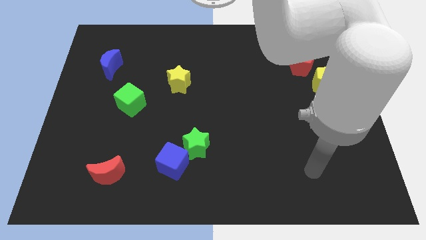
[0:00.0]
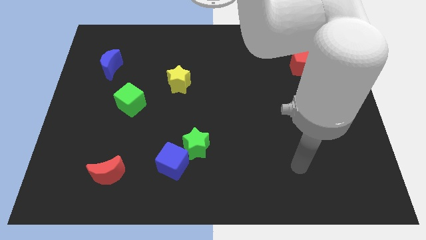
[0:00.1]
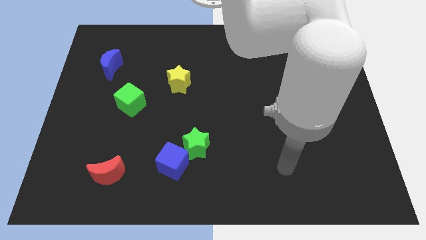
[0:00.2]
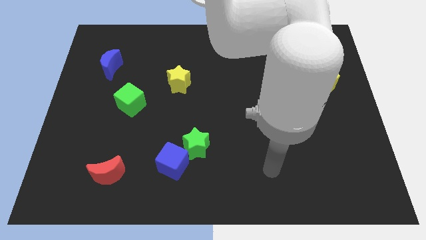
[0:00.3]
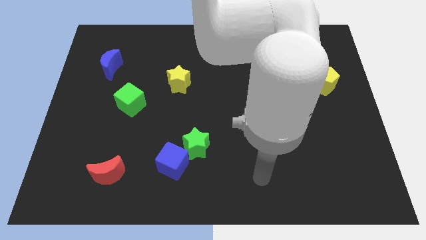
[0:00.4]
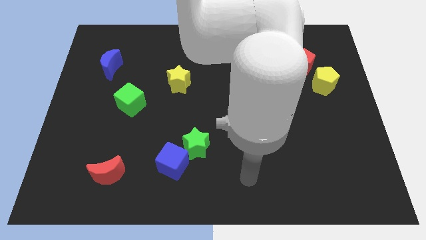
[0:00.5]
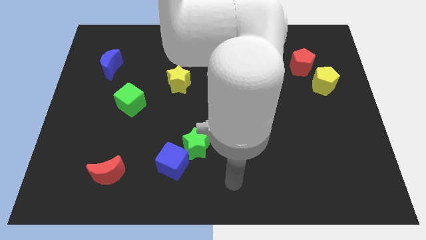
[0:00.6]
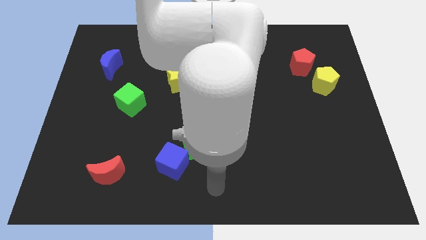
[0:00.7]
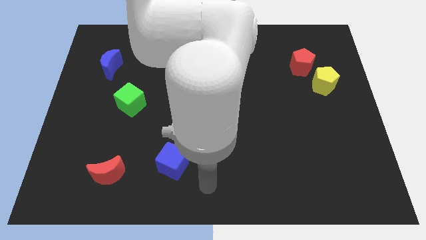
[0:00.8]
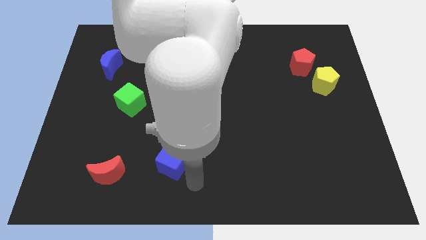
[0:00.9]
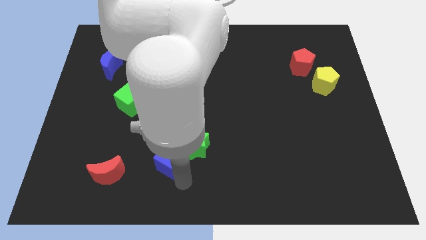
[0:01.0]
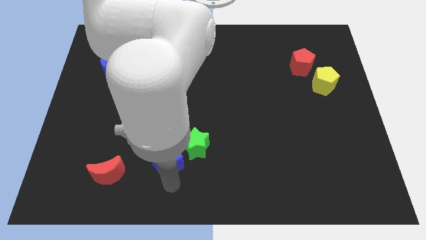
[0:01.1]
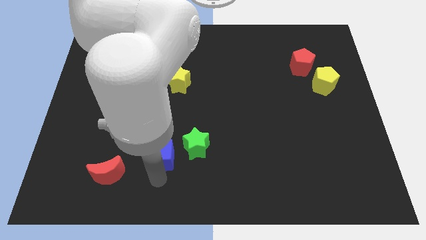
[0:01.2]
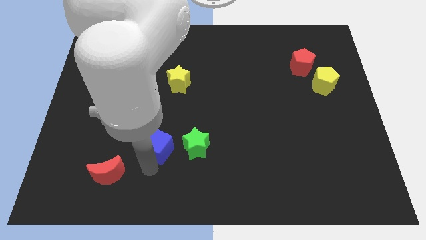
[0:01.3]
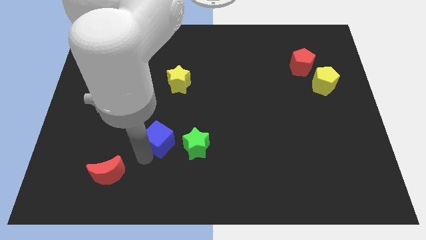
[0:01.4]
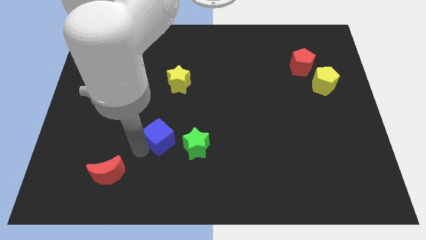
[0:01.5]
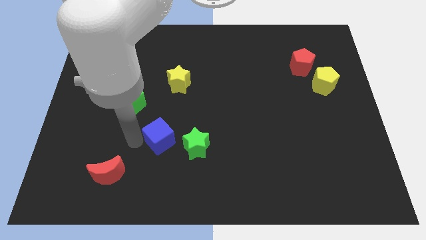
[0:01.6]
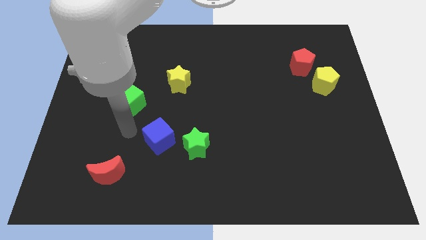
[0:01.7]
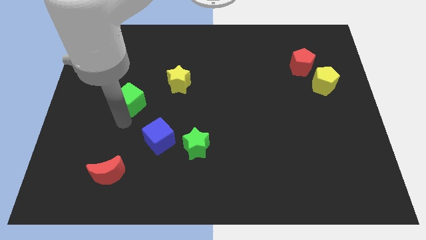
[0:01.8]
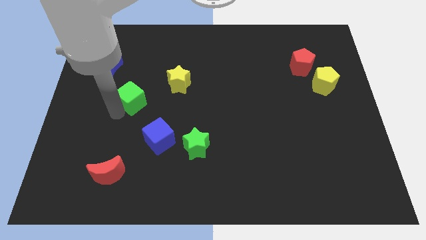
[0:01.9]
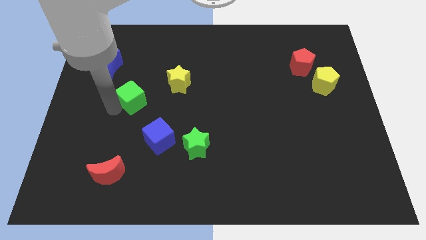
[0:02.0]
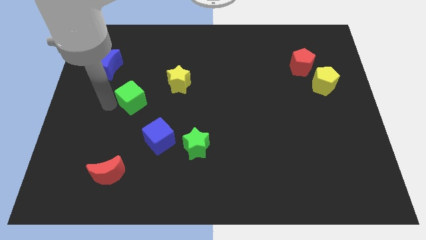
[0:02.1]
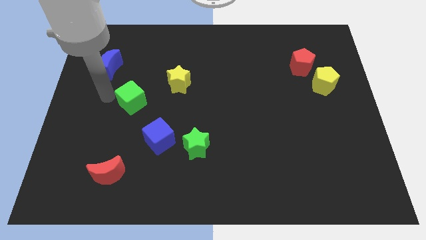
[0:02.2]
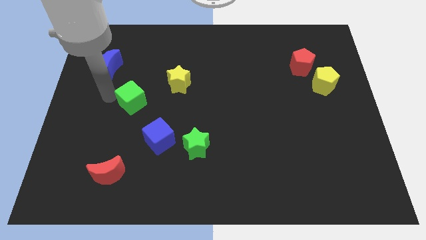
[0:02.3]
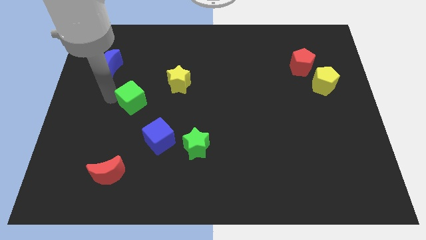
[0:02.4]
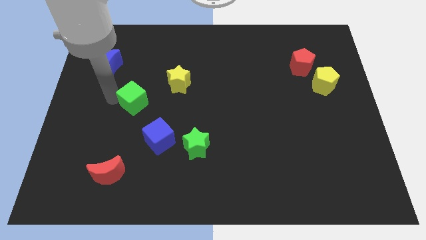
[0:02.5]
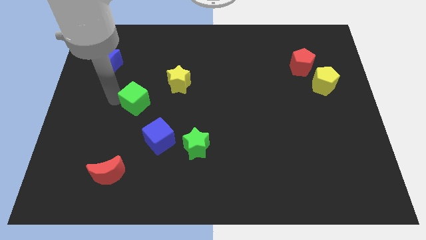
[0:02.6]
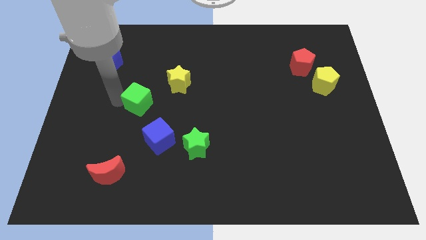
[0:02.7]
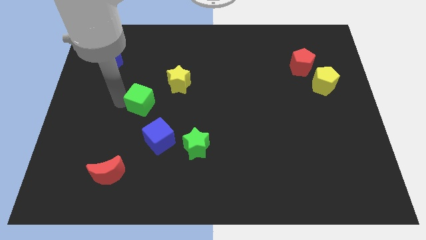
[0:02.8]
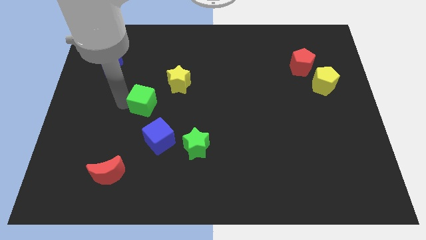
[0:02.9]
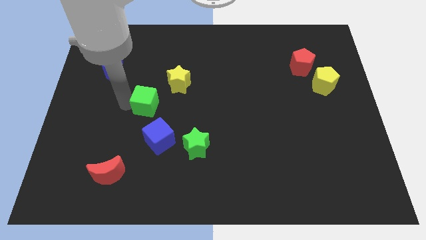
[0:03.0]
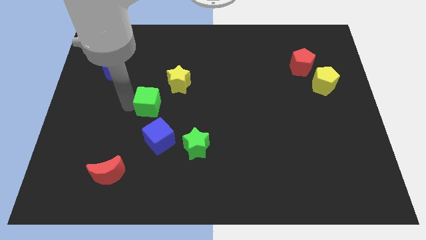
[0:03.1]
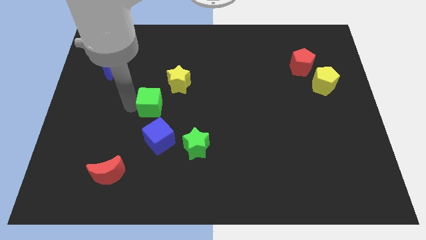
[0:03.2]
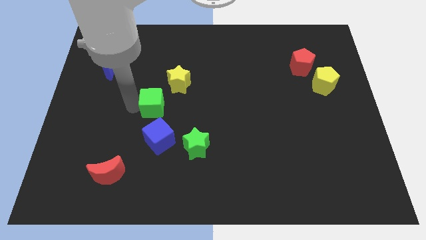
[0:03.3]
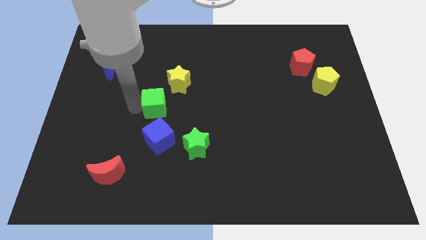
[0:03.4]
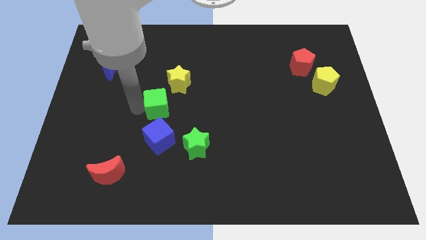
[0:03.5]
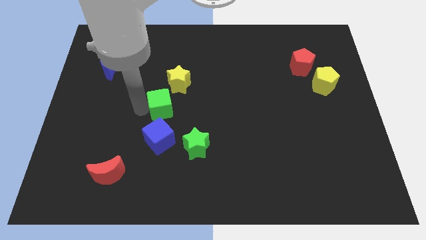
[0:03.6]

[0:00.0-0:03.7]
slightly slide the green cube right

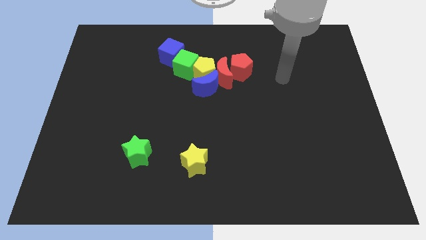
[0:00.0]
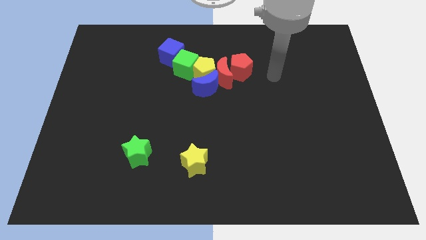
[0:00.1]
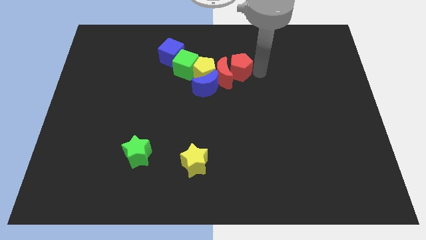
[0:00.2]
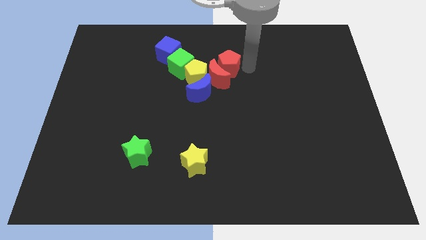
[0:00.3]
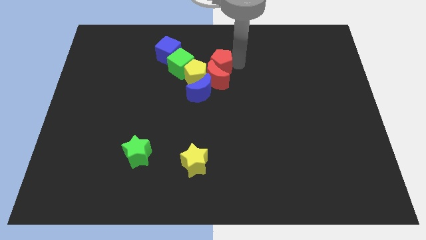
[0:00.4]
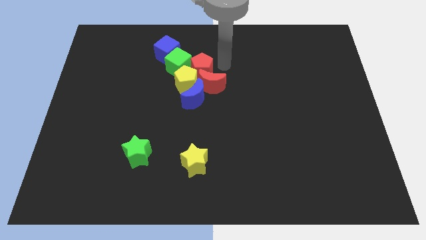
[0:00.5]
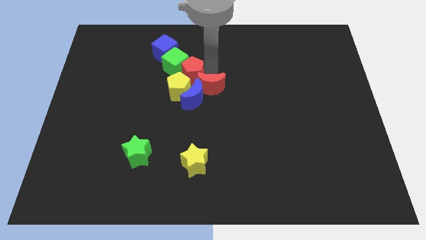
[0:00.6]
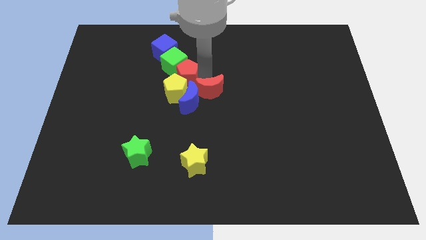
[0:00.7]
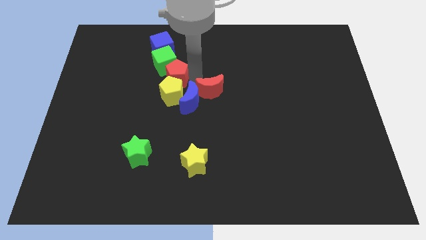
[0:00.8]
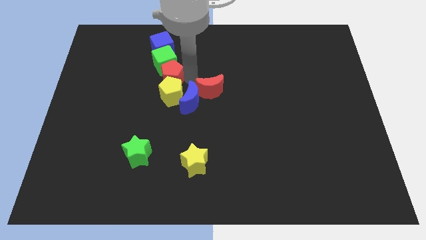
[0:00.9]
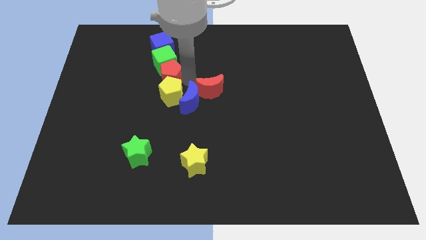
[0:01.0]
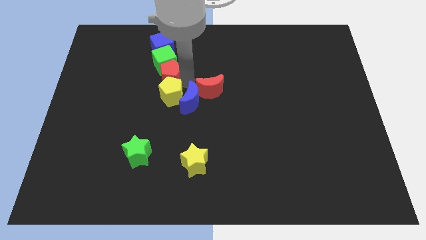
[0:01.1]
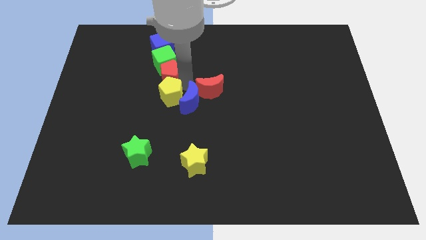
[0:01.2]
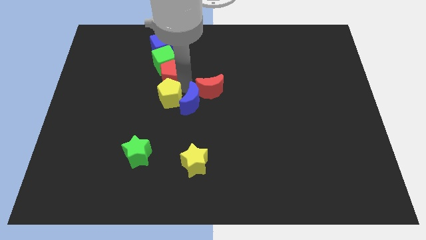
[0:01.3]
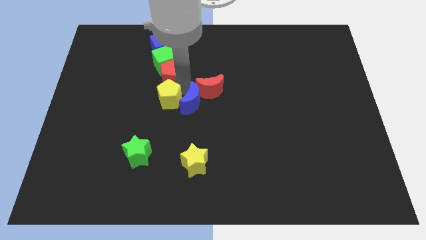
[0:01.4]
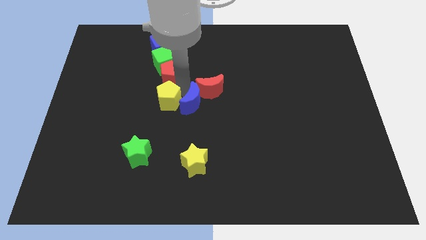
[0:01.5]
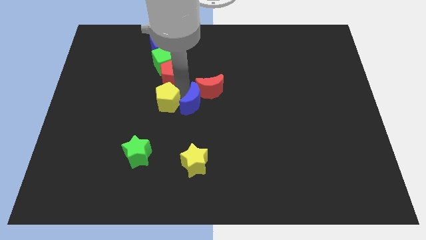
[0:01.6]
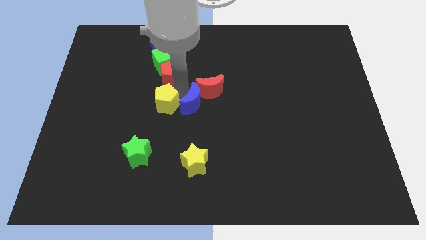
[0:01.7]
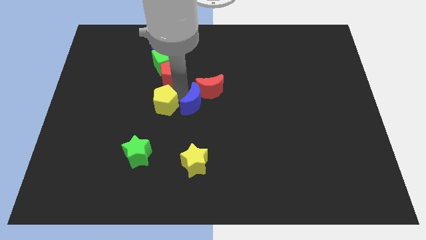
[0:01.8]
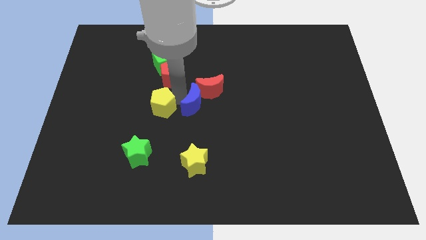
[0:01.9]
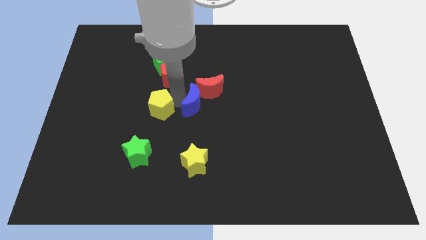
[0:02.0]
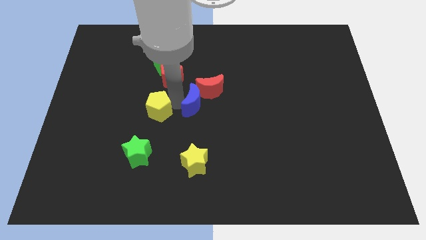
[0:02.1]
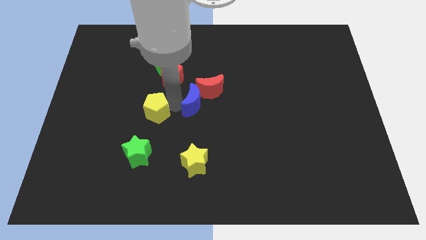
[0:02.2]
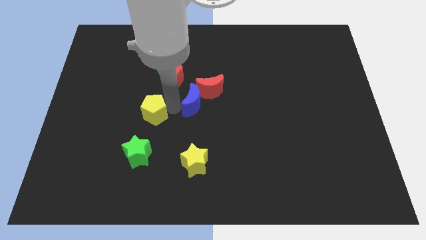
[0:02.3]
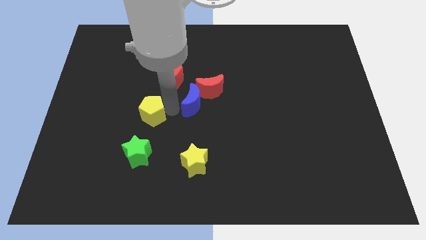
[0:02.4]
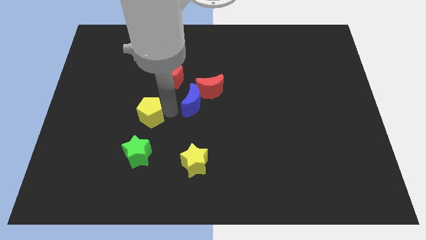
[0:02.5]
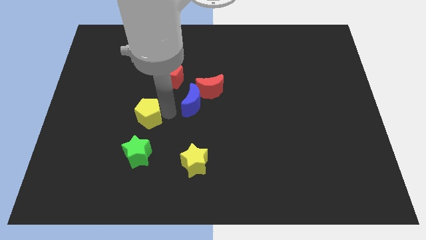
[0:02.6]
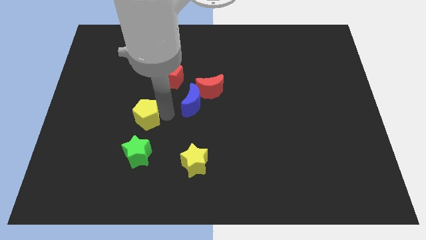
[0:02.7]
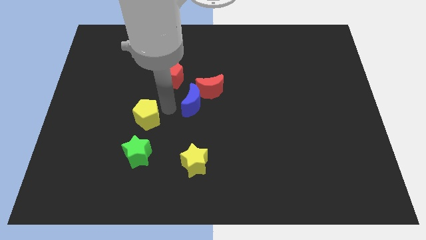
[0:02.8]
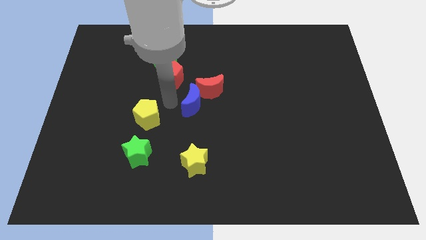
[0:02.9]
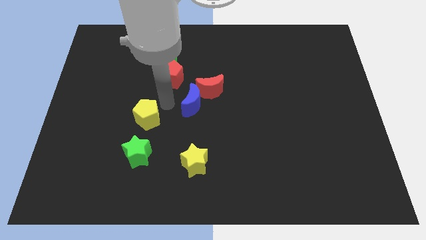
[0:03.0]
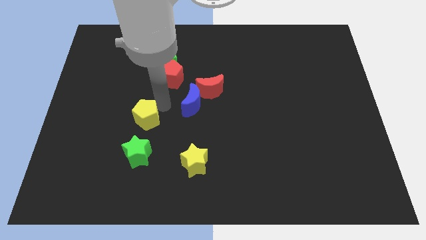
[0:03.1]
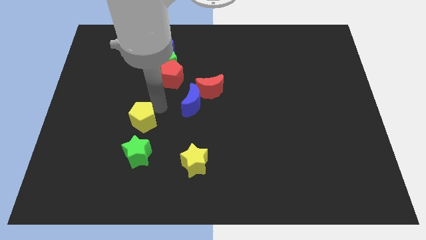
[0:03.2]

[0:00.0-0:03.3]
push the yellow pentagon down and to the left

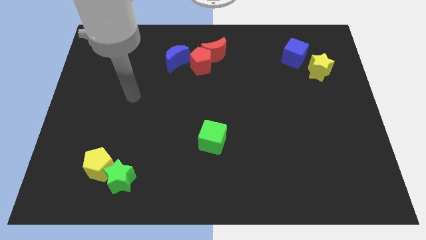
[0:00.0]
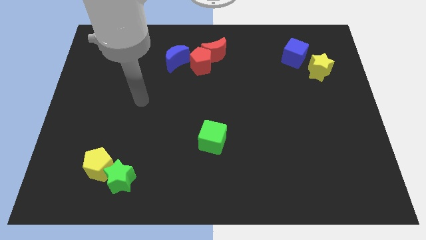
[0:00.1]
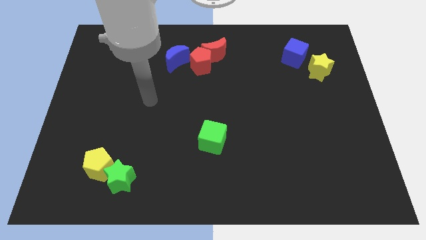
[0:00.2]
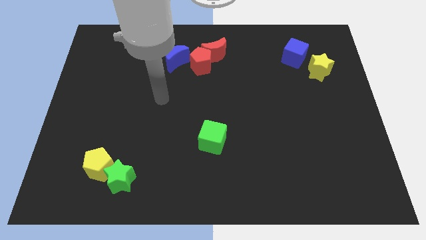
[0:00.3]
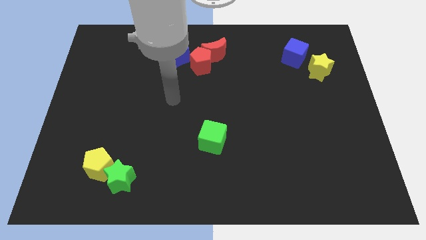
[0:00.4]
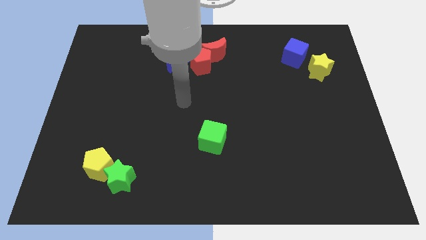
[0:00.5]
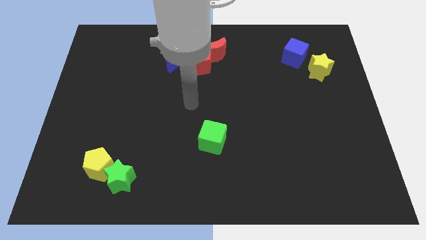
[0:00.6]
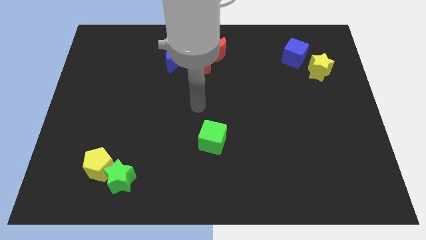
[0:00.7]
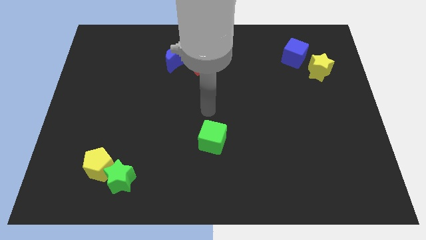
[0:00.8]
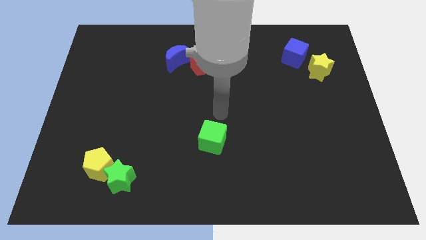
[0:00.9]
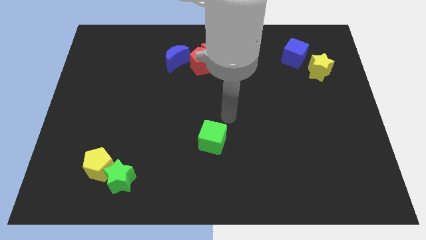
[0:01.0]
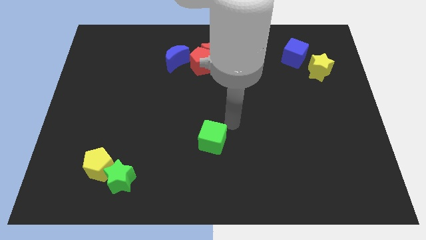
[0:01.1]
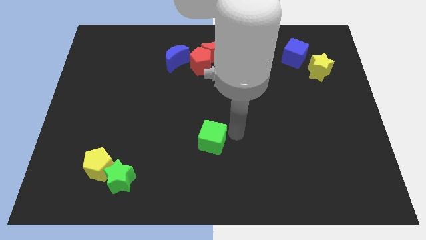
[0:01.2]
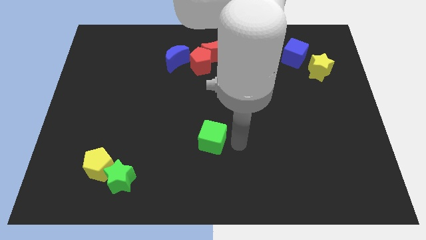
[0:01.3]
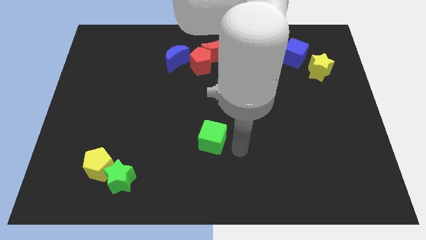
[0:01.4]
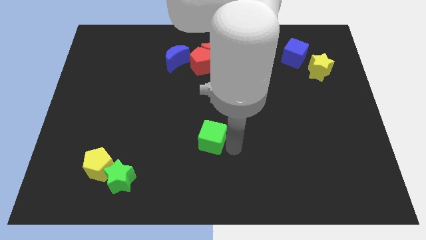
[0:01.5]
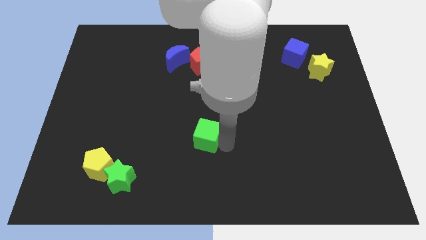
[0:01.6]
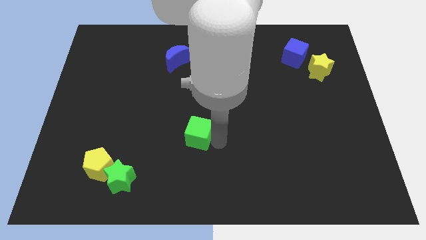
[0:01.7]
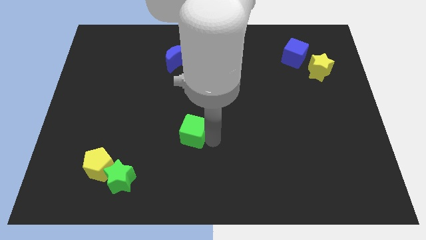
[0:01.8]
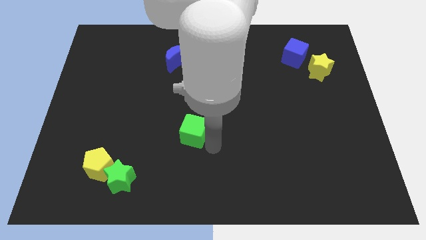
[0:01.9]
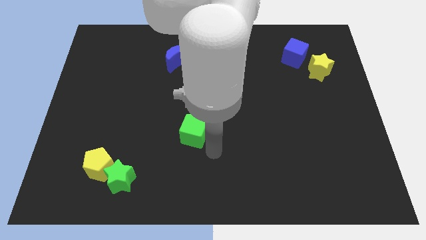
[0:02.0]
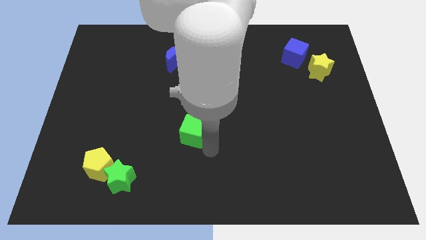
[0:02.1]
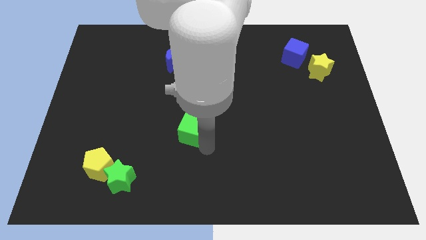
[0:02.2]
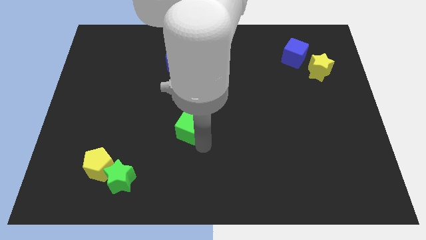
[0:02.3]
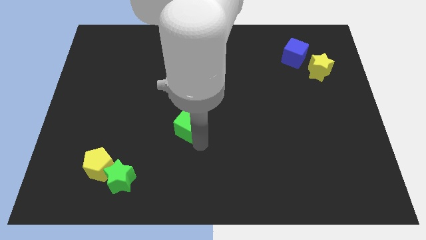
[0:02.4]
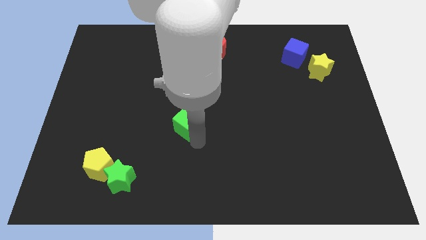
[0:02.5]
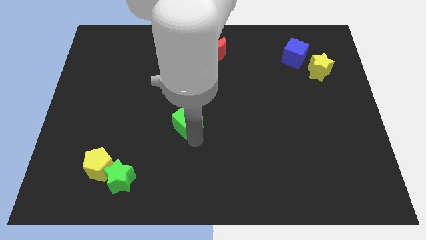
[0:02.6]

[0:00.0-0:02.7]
slightly move the green cube upwards and to the left
